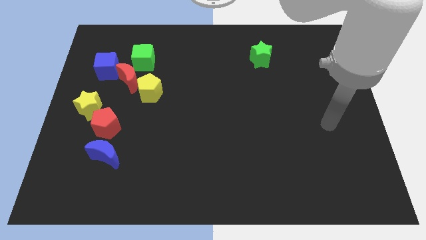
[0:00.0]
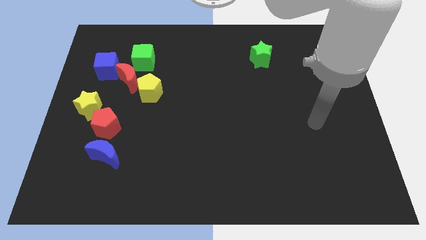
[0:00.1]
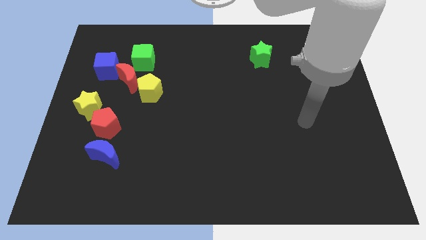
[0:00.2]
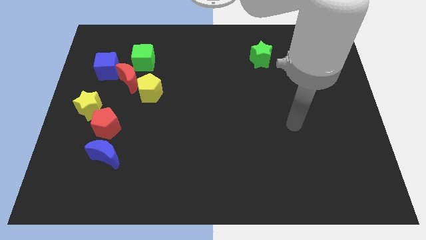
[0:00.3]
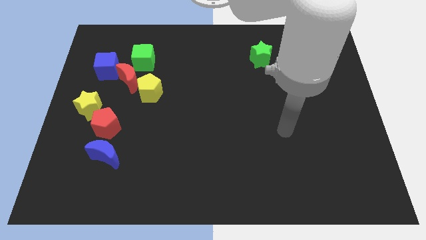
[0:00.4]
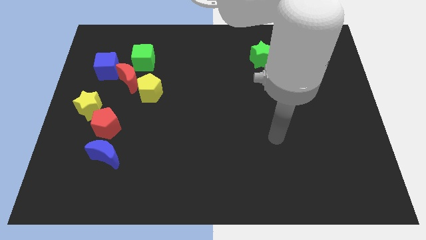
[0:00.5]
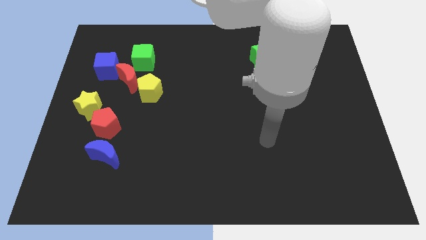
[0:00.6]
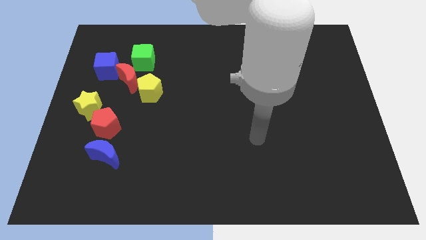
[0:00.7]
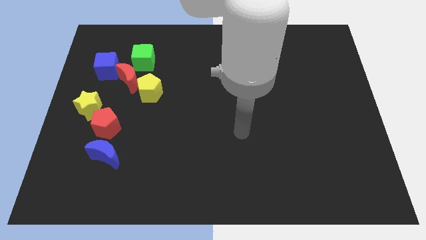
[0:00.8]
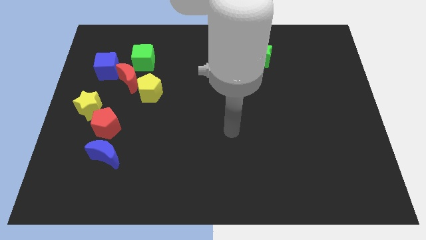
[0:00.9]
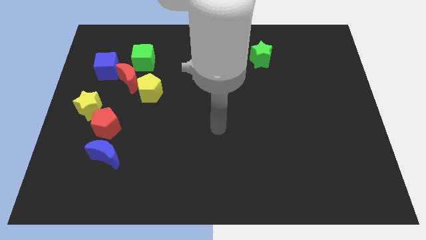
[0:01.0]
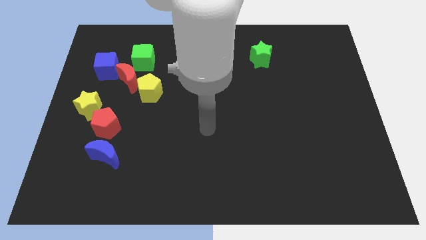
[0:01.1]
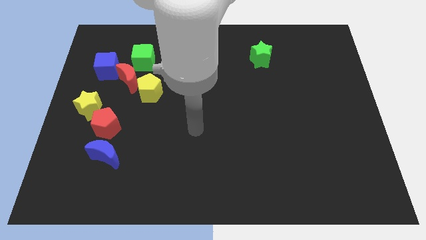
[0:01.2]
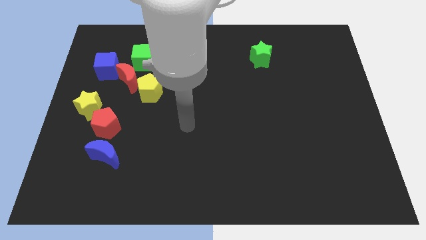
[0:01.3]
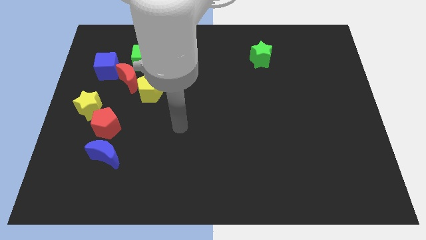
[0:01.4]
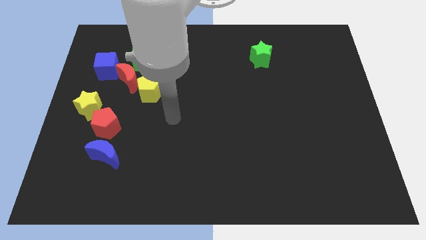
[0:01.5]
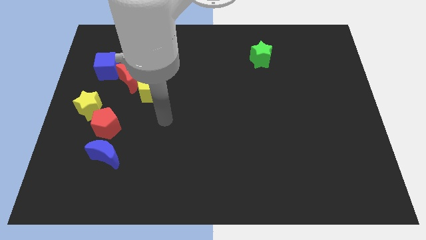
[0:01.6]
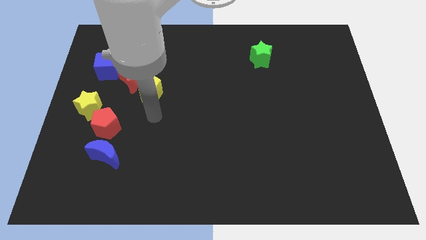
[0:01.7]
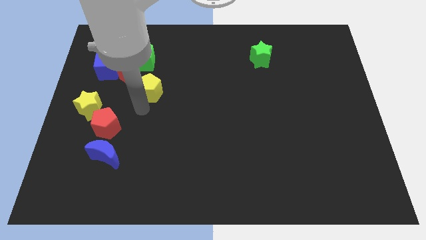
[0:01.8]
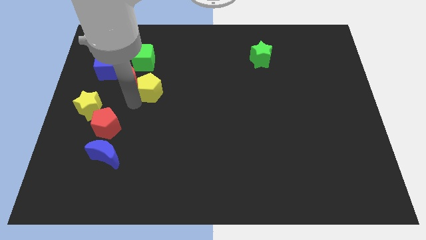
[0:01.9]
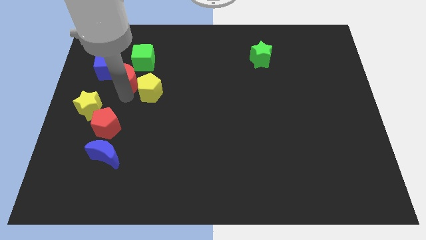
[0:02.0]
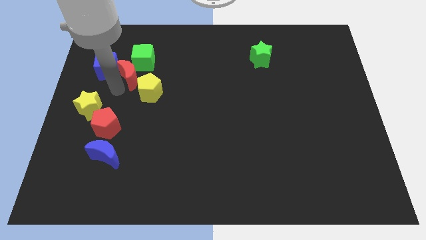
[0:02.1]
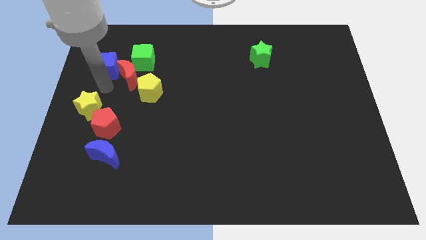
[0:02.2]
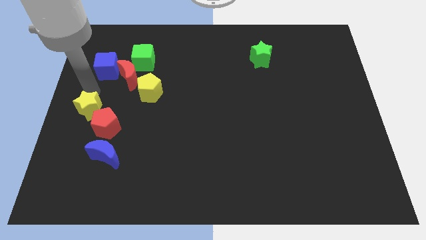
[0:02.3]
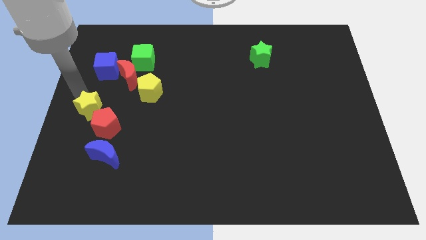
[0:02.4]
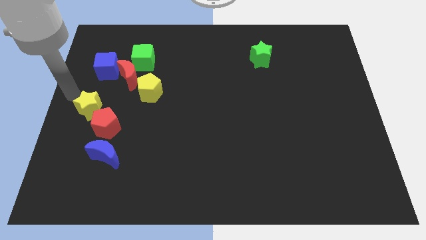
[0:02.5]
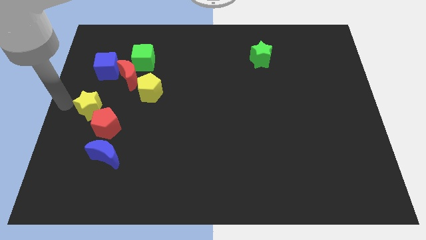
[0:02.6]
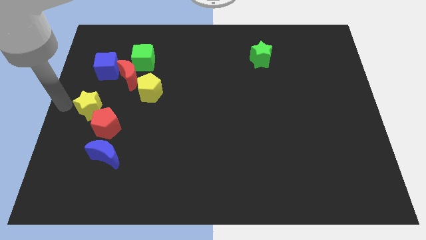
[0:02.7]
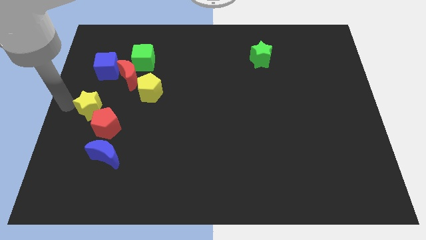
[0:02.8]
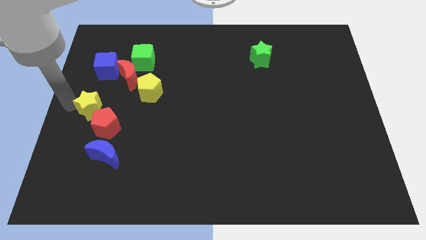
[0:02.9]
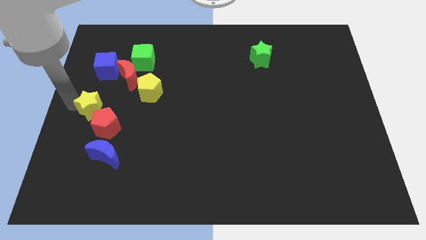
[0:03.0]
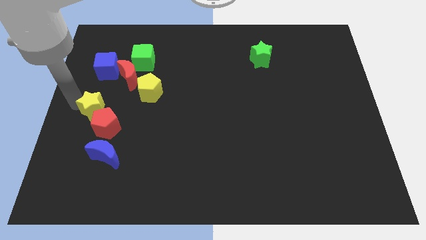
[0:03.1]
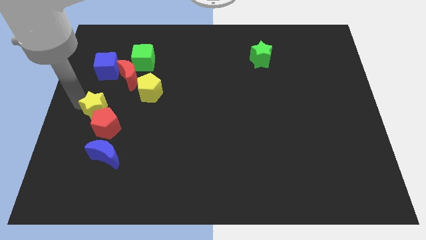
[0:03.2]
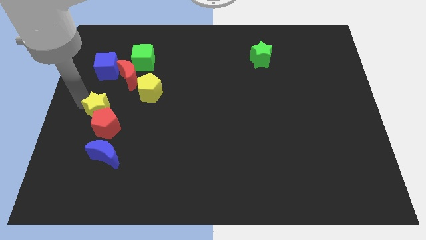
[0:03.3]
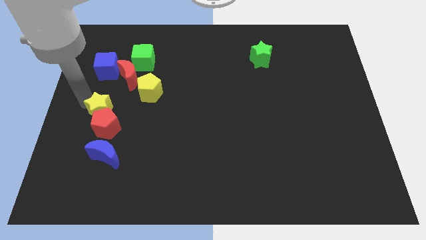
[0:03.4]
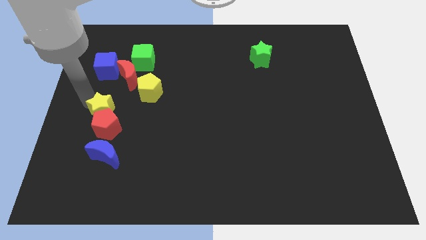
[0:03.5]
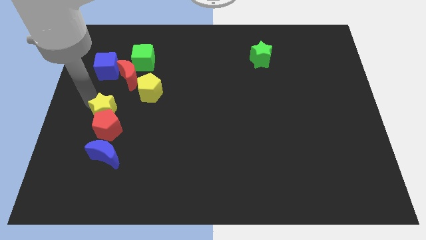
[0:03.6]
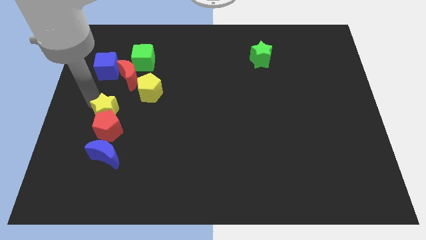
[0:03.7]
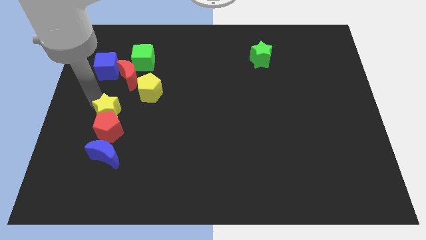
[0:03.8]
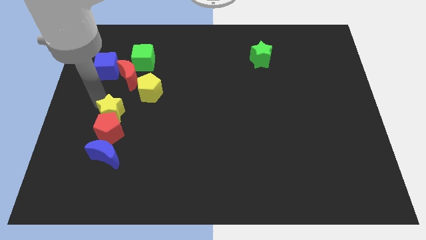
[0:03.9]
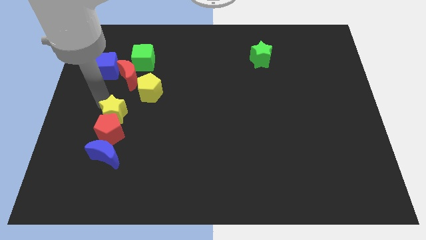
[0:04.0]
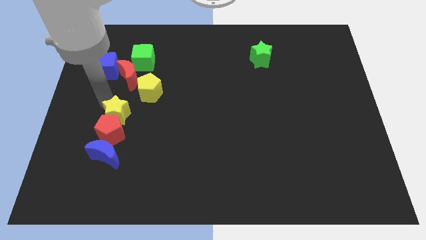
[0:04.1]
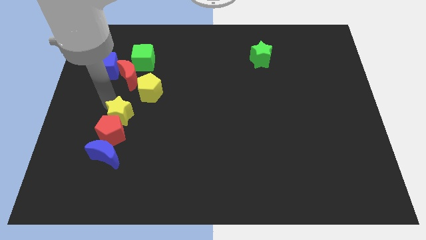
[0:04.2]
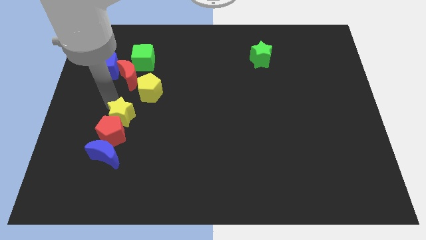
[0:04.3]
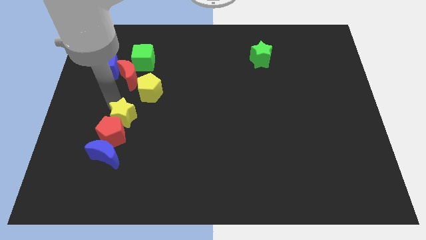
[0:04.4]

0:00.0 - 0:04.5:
move the yellow star diagonally down and right somewhat

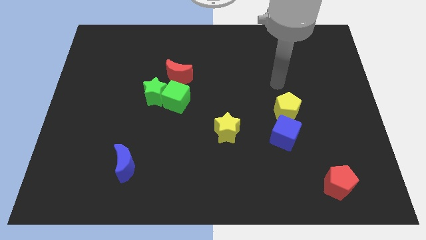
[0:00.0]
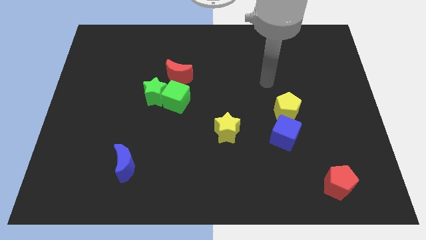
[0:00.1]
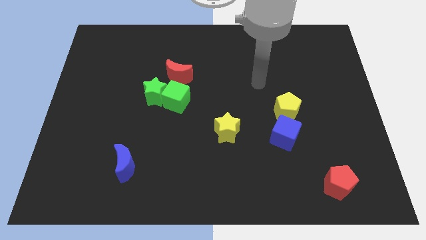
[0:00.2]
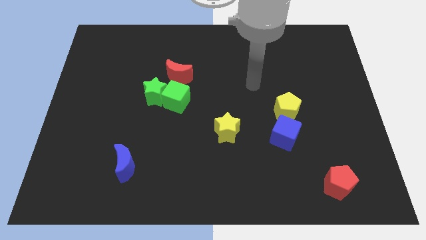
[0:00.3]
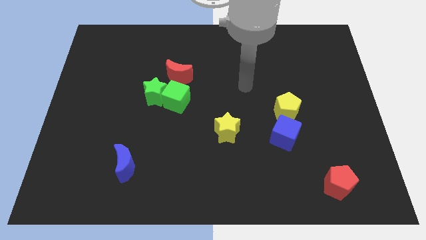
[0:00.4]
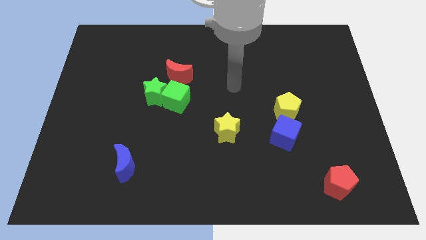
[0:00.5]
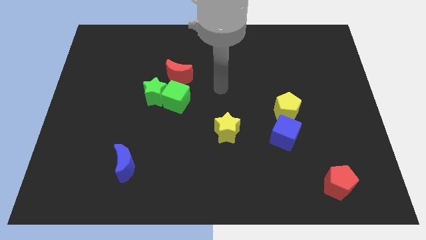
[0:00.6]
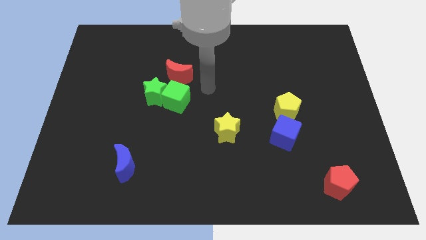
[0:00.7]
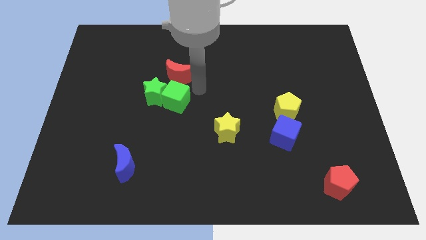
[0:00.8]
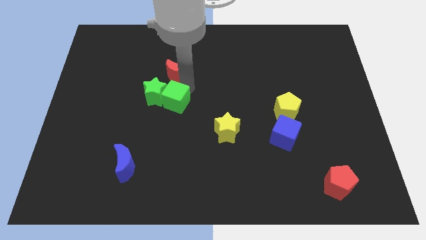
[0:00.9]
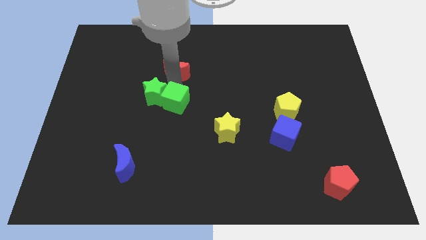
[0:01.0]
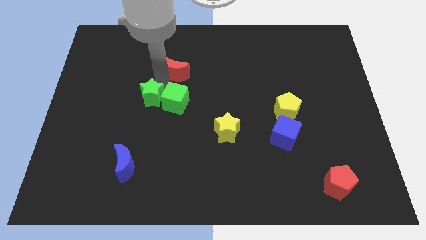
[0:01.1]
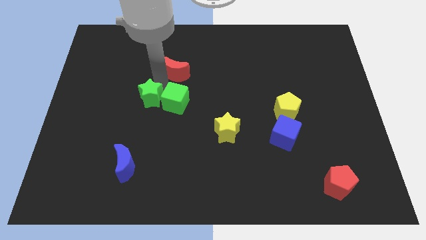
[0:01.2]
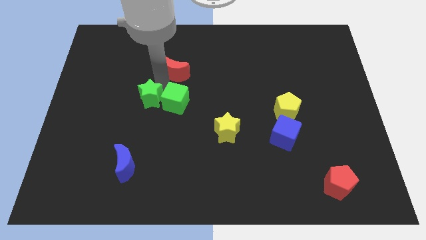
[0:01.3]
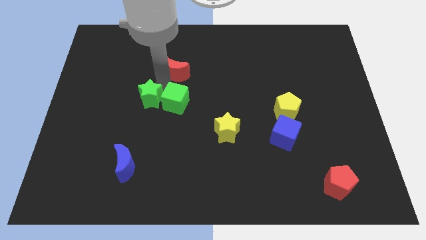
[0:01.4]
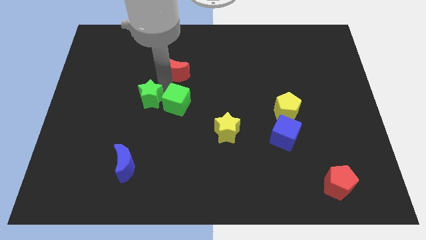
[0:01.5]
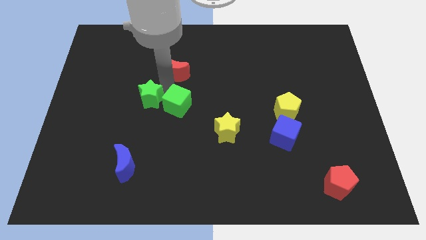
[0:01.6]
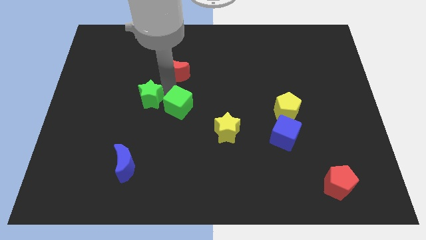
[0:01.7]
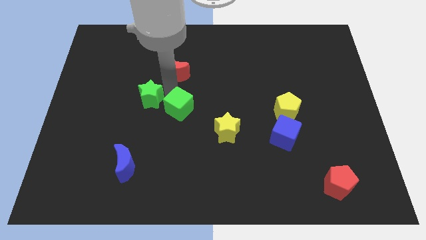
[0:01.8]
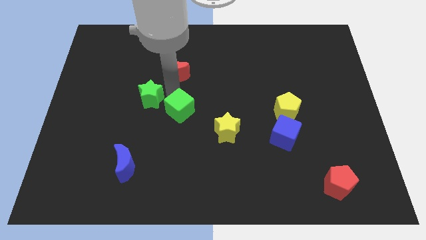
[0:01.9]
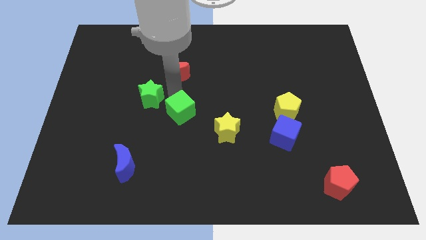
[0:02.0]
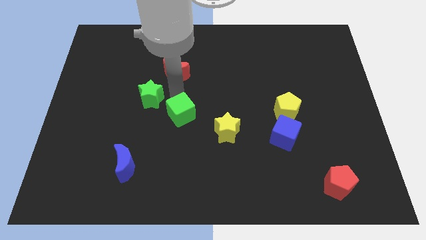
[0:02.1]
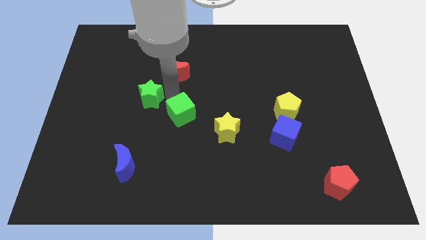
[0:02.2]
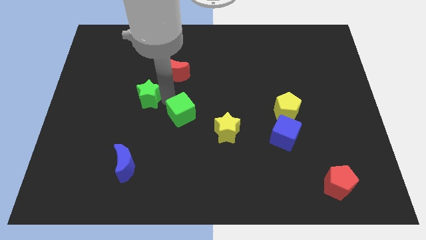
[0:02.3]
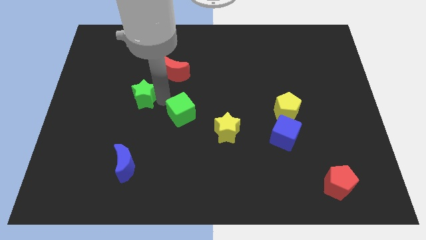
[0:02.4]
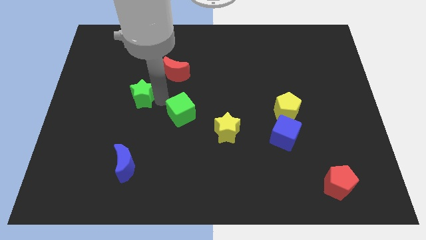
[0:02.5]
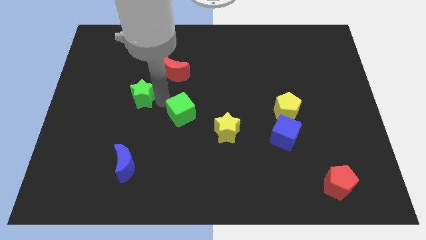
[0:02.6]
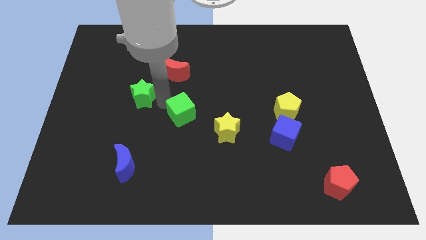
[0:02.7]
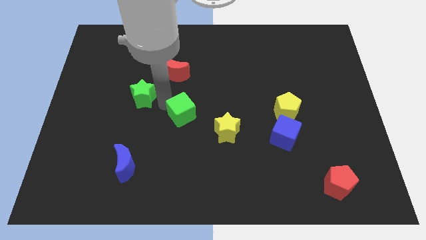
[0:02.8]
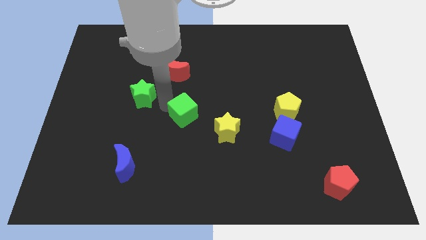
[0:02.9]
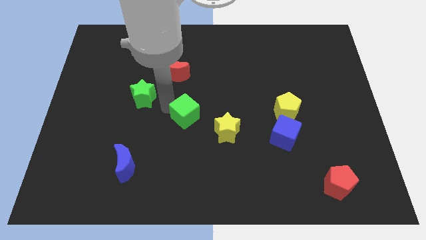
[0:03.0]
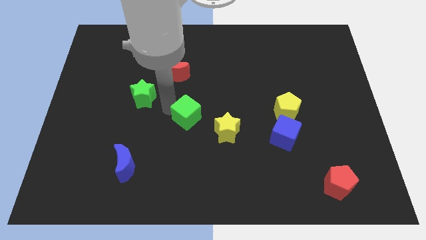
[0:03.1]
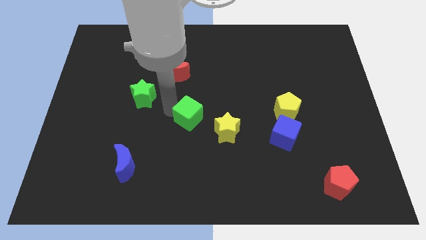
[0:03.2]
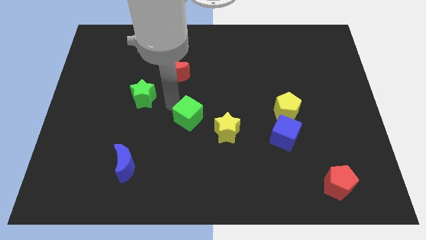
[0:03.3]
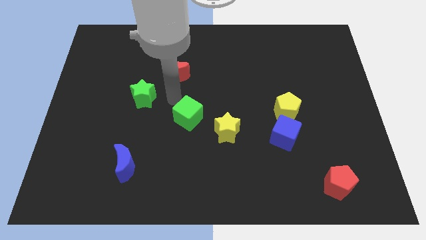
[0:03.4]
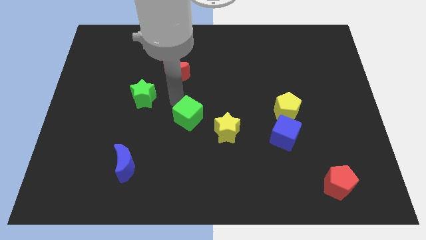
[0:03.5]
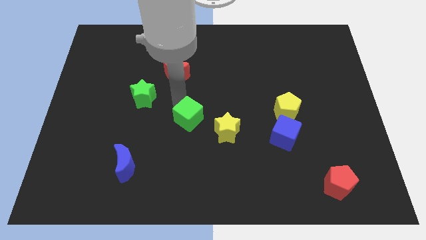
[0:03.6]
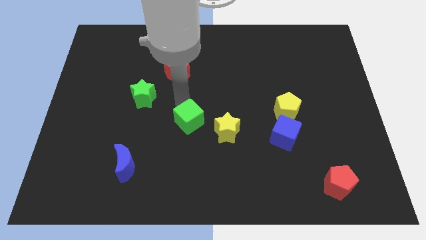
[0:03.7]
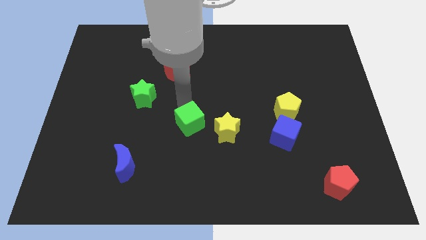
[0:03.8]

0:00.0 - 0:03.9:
move the green cube somewhat diagonally down and right
